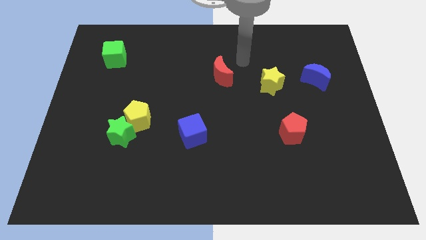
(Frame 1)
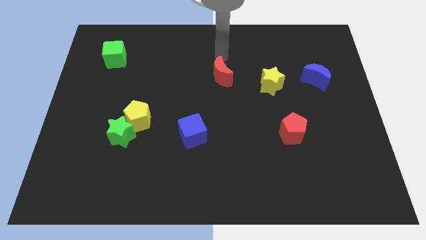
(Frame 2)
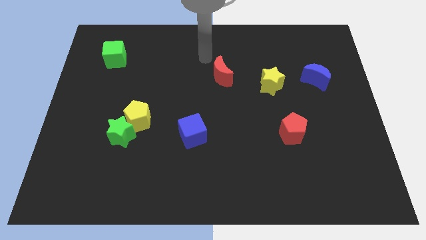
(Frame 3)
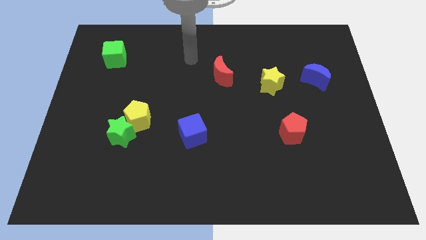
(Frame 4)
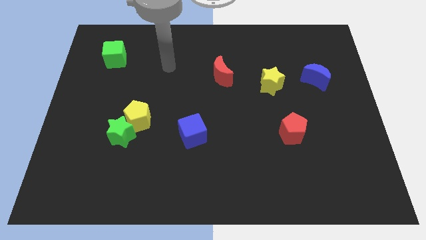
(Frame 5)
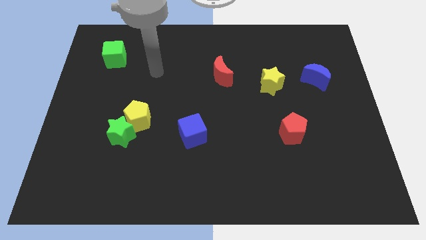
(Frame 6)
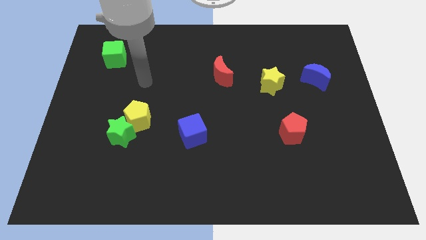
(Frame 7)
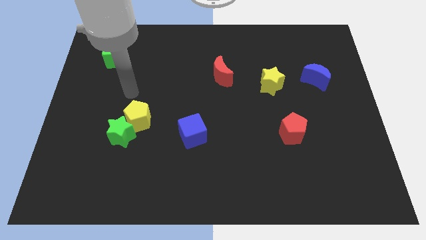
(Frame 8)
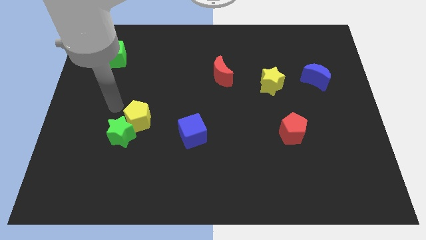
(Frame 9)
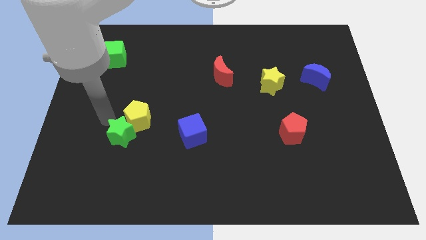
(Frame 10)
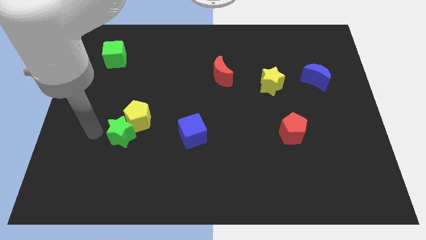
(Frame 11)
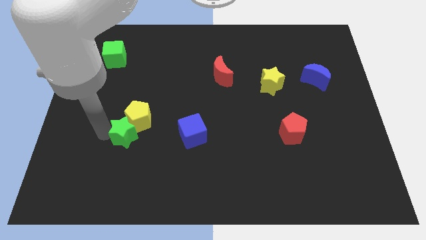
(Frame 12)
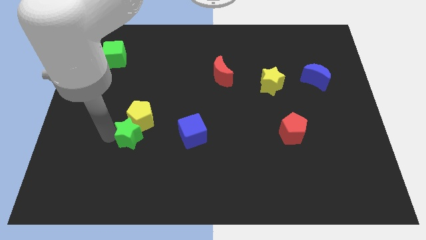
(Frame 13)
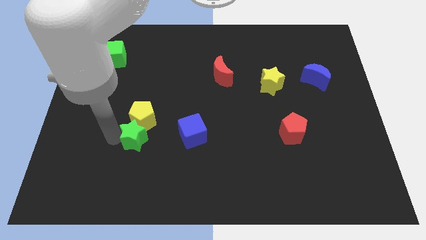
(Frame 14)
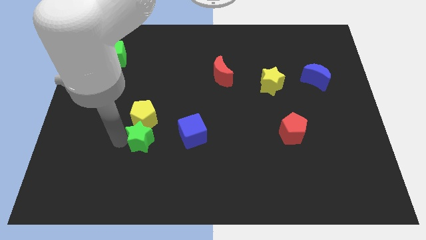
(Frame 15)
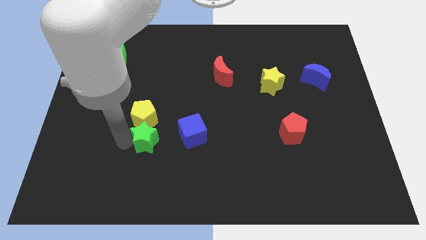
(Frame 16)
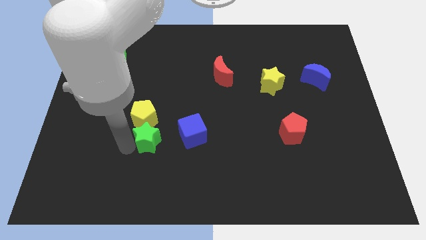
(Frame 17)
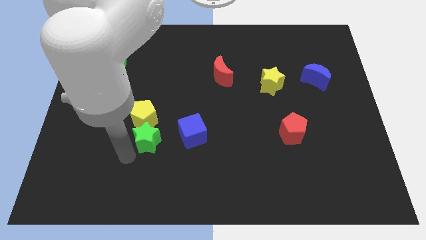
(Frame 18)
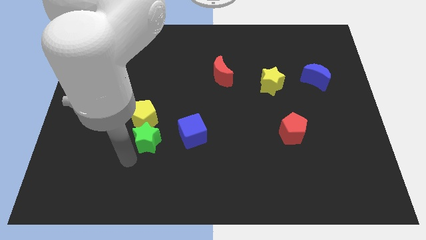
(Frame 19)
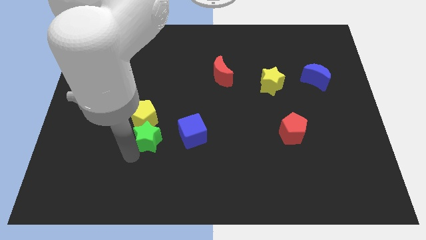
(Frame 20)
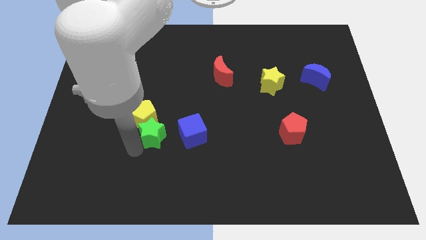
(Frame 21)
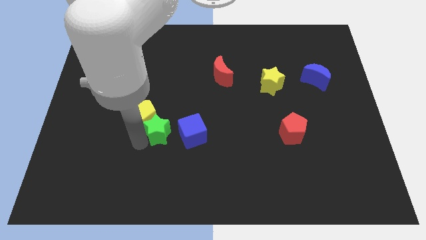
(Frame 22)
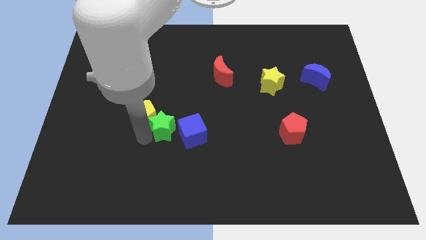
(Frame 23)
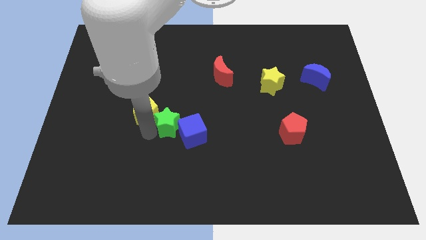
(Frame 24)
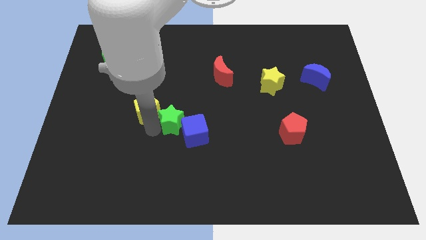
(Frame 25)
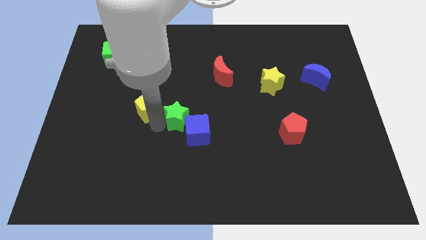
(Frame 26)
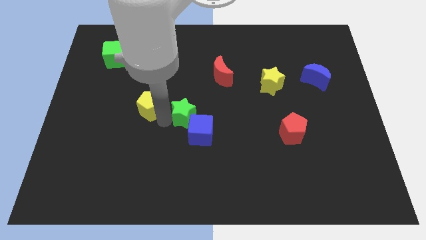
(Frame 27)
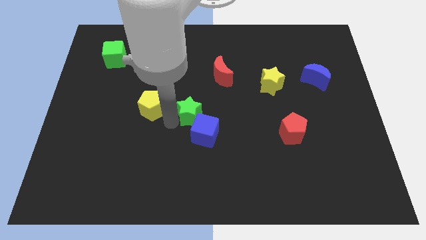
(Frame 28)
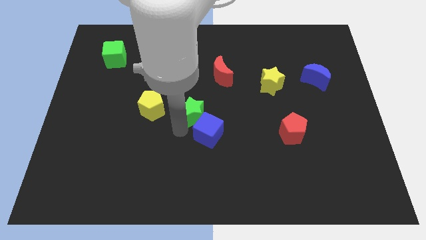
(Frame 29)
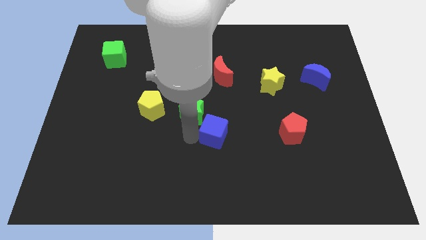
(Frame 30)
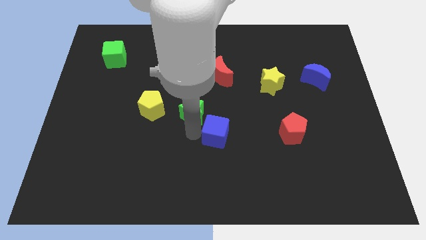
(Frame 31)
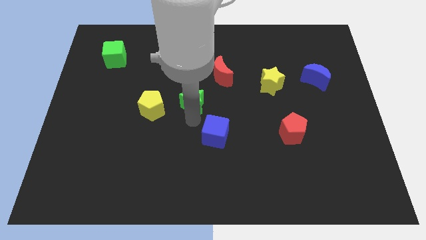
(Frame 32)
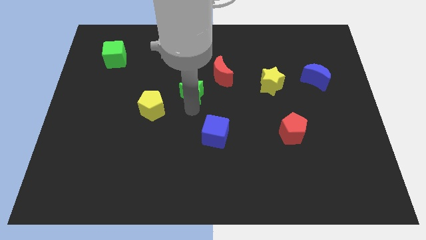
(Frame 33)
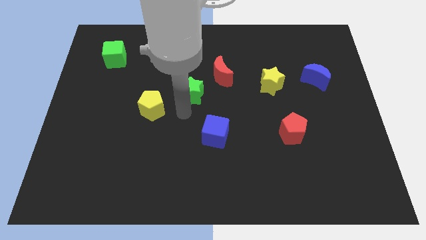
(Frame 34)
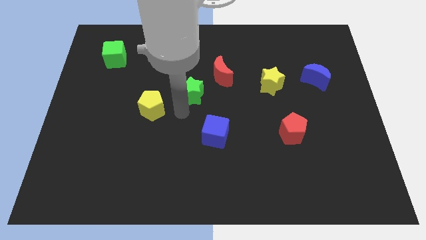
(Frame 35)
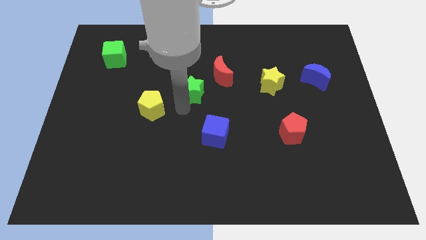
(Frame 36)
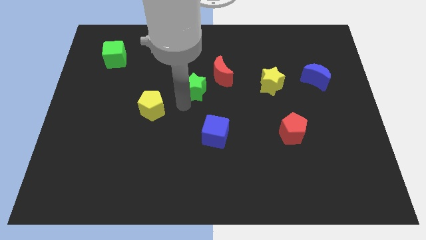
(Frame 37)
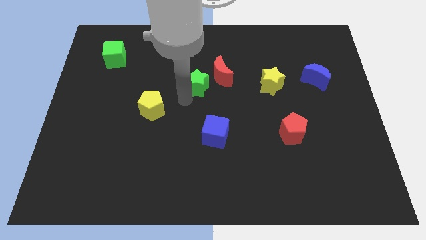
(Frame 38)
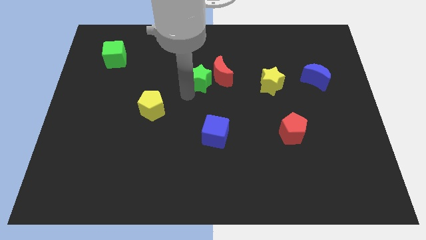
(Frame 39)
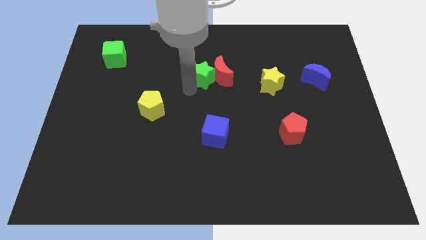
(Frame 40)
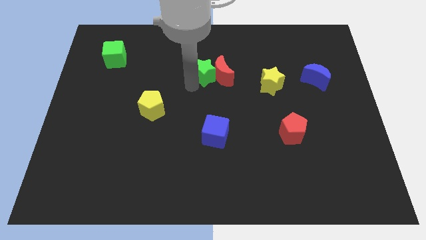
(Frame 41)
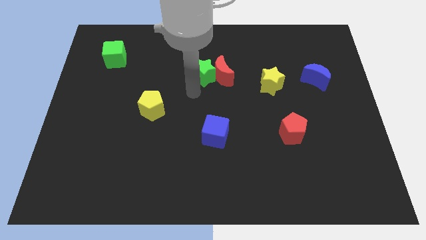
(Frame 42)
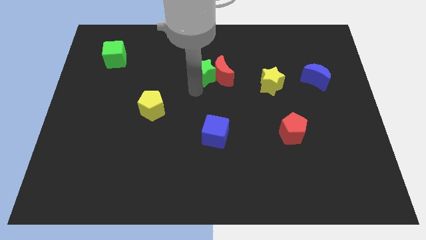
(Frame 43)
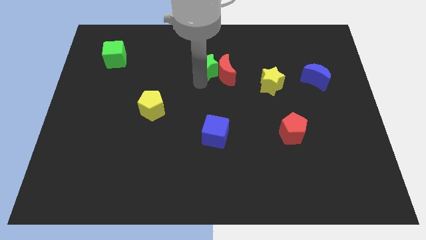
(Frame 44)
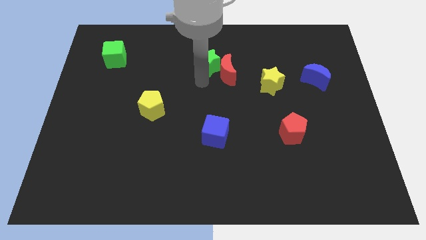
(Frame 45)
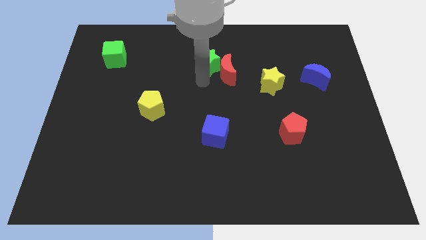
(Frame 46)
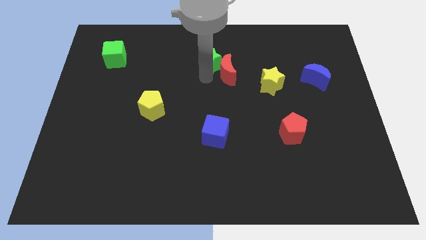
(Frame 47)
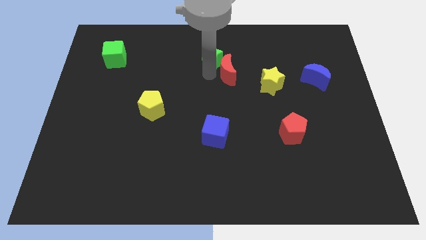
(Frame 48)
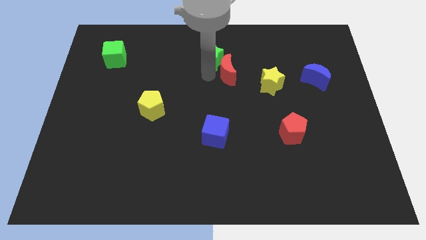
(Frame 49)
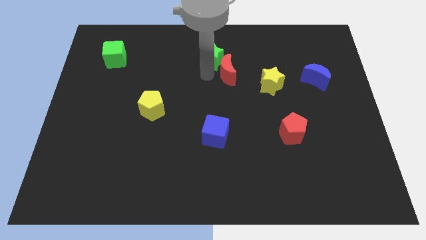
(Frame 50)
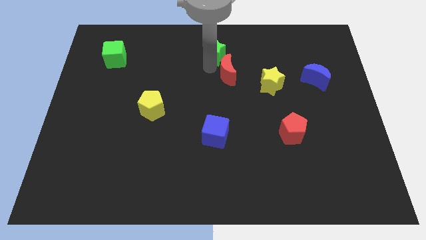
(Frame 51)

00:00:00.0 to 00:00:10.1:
slide the green star to the top

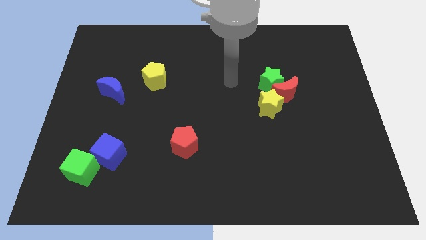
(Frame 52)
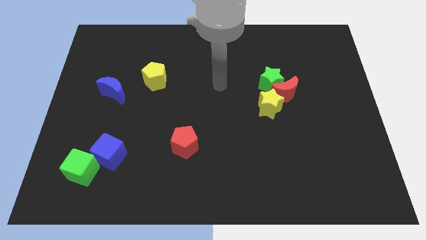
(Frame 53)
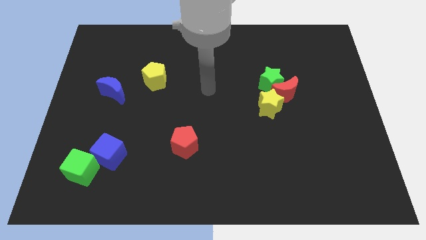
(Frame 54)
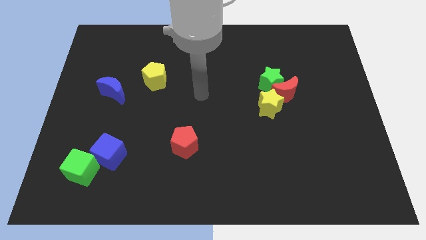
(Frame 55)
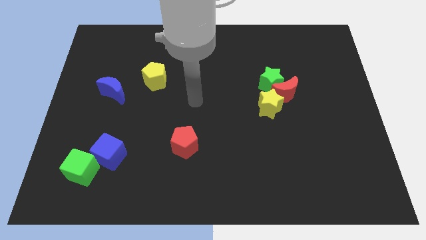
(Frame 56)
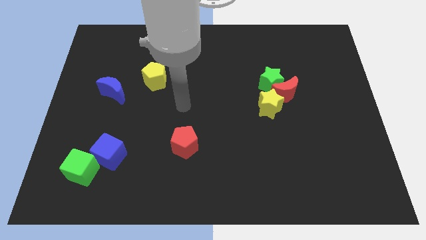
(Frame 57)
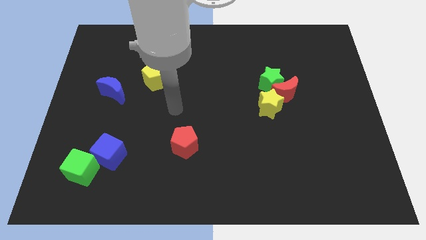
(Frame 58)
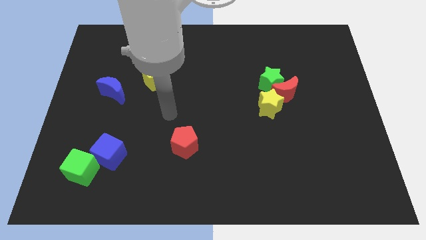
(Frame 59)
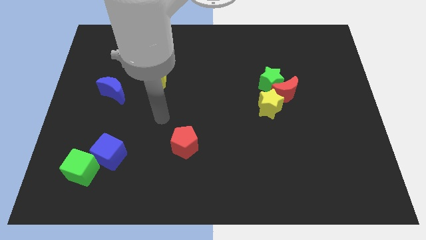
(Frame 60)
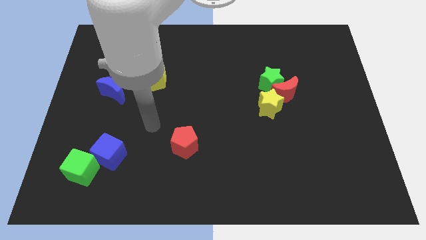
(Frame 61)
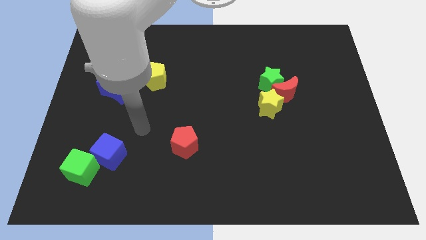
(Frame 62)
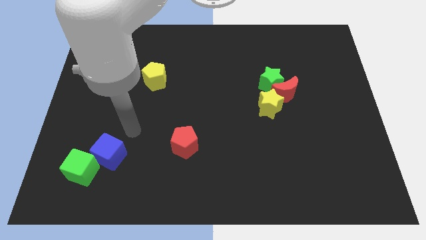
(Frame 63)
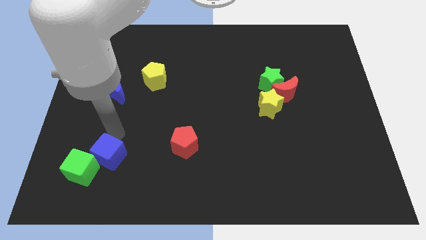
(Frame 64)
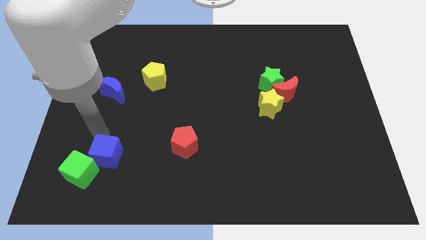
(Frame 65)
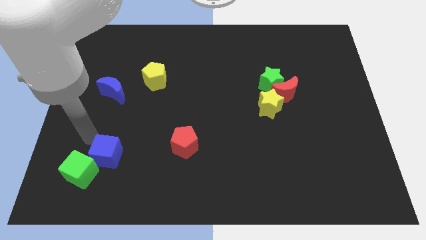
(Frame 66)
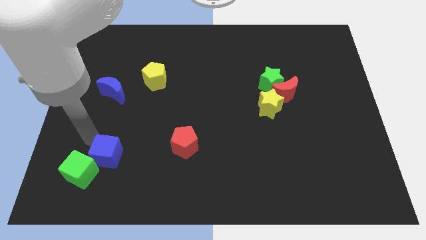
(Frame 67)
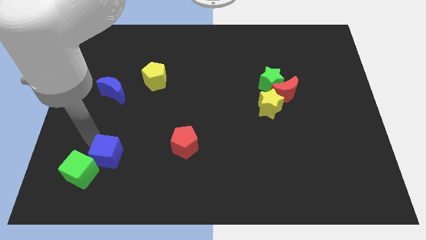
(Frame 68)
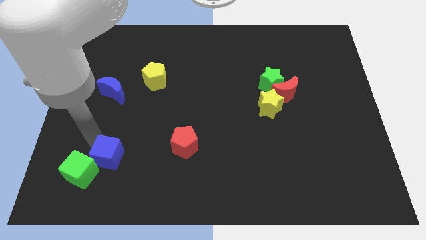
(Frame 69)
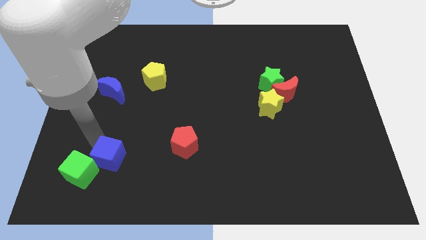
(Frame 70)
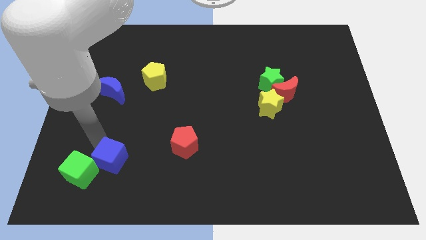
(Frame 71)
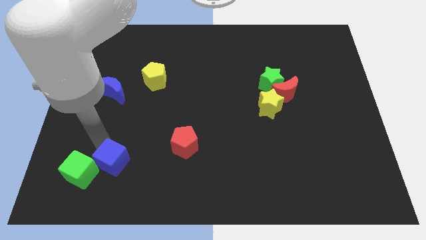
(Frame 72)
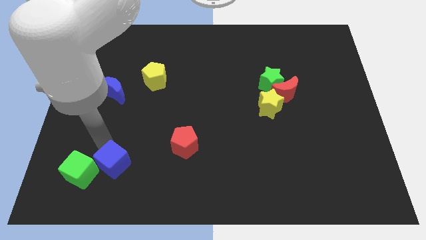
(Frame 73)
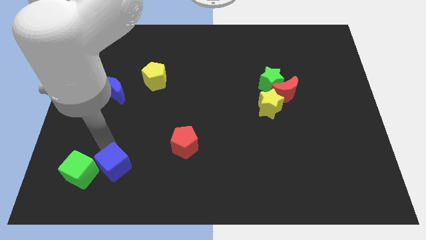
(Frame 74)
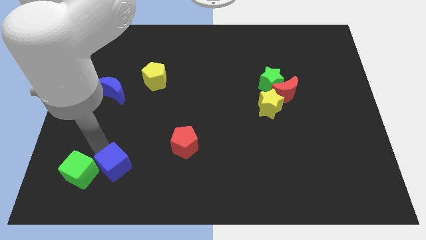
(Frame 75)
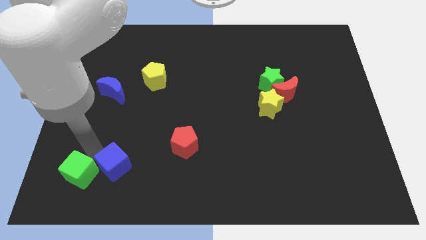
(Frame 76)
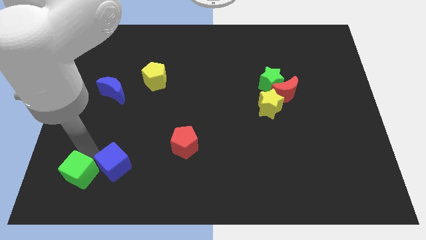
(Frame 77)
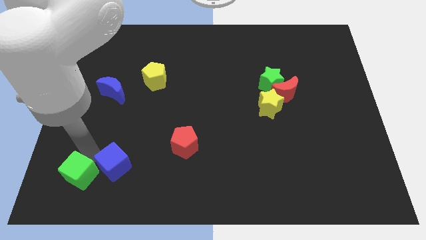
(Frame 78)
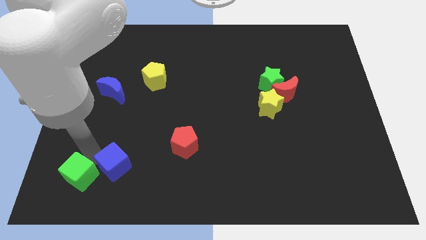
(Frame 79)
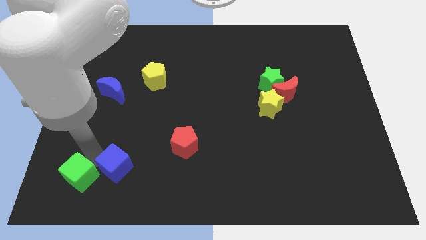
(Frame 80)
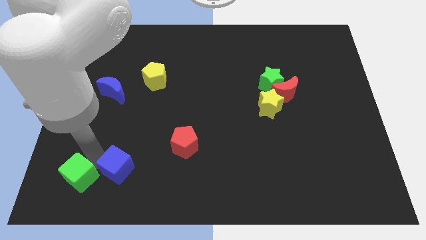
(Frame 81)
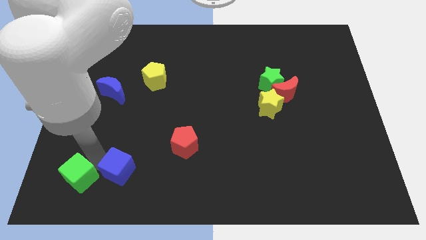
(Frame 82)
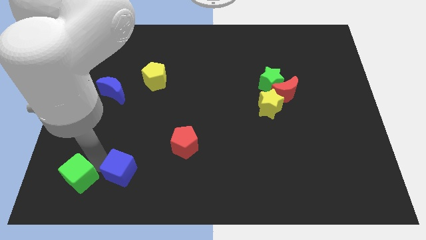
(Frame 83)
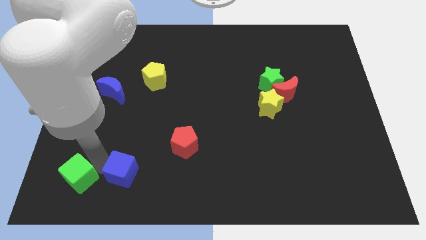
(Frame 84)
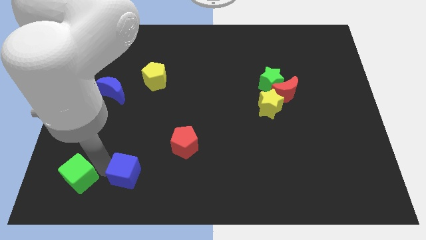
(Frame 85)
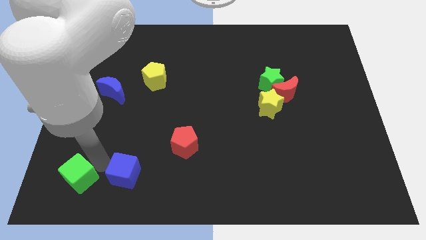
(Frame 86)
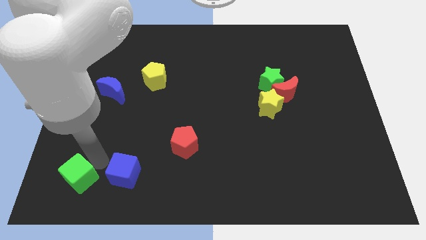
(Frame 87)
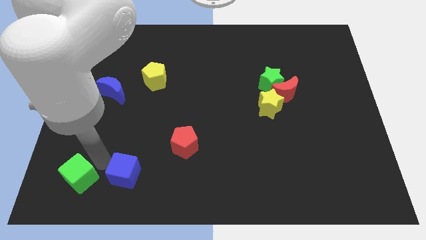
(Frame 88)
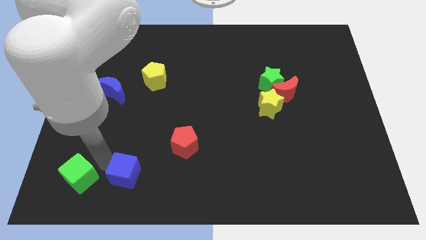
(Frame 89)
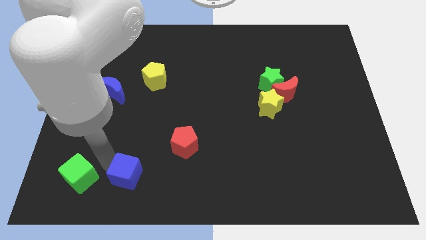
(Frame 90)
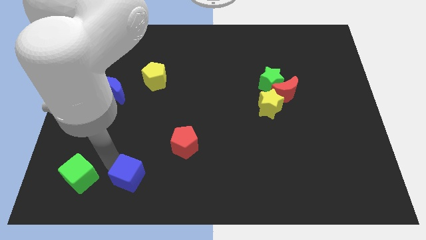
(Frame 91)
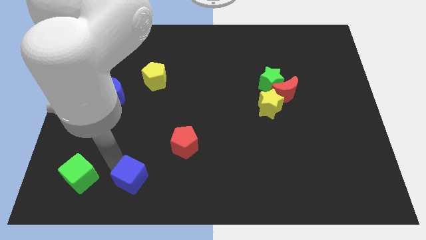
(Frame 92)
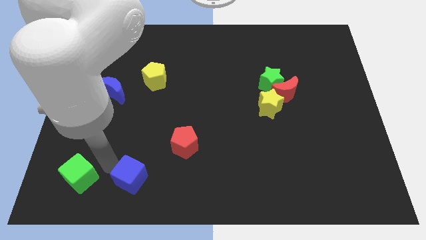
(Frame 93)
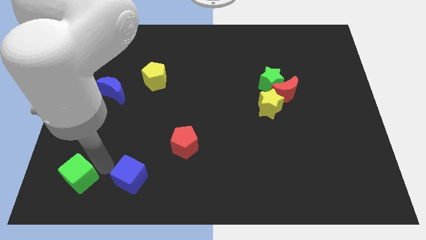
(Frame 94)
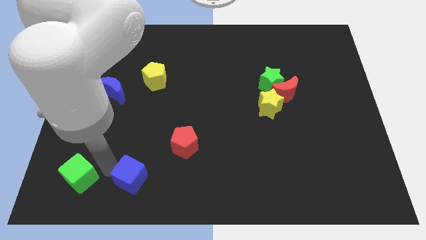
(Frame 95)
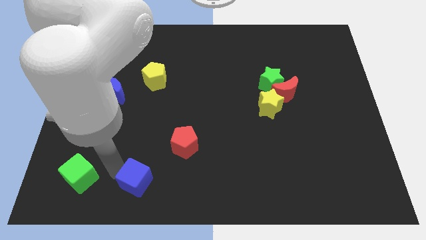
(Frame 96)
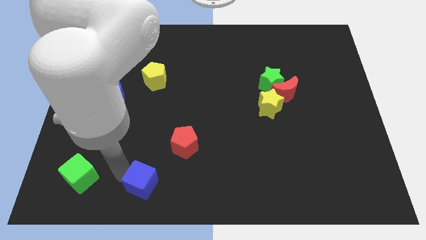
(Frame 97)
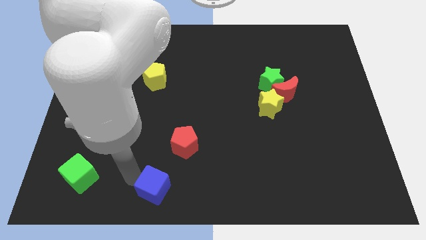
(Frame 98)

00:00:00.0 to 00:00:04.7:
put the blue cube to the bottom side
